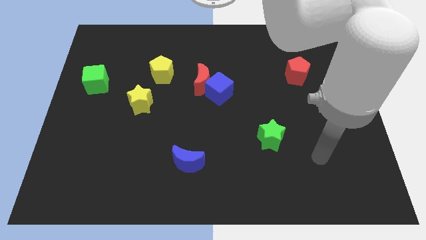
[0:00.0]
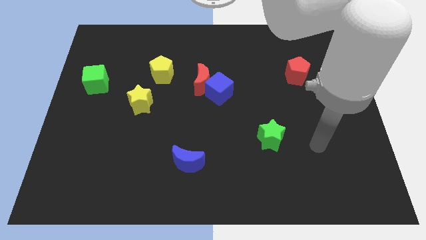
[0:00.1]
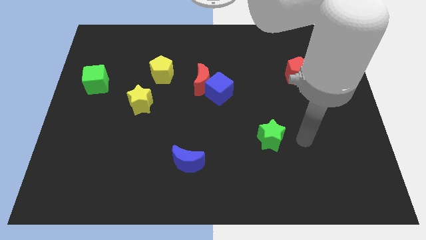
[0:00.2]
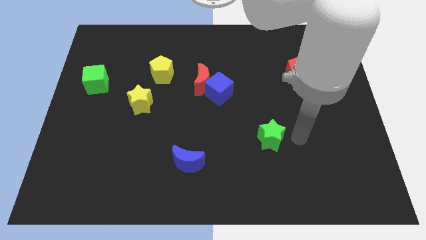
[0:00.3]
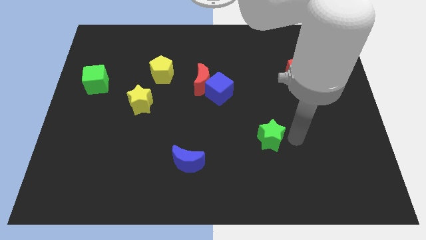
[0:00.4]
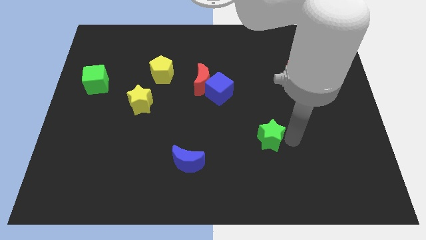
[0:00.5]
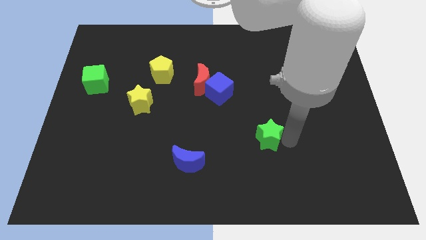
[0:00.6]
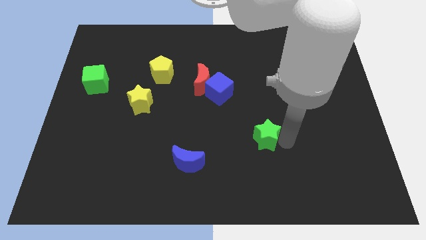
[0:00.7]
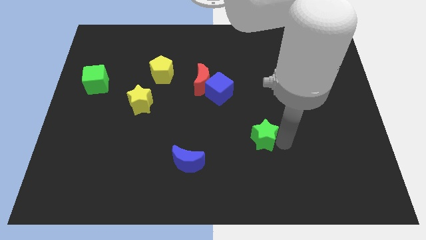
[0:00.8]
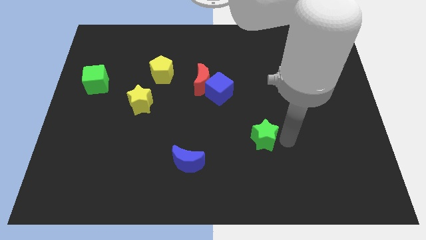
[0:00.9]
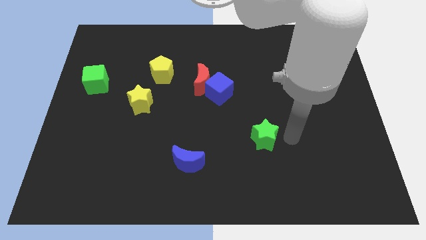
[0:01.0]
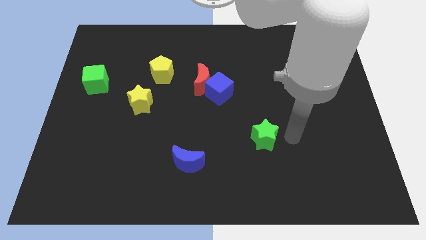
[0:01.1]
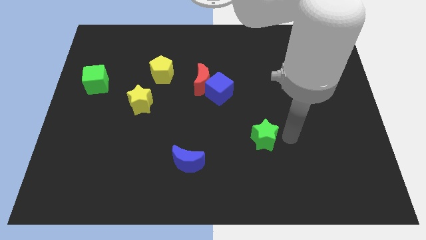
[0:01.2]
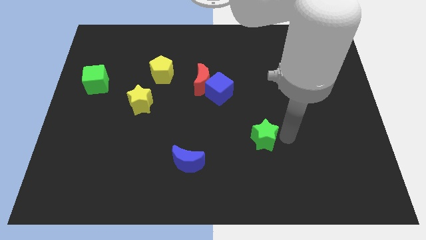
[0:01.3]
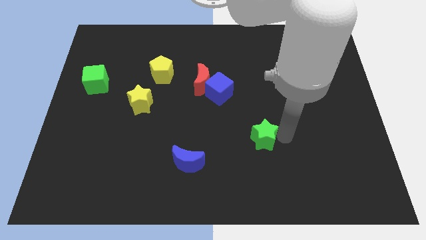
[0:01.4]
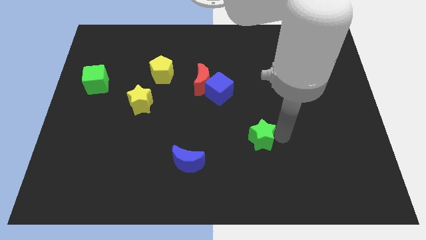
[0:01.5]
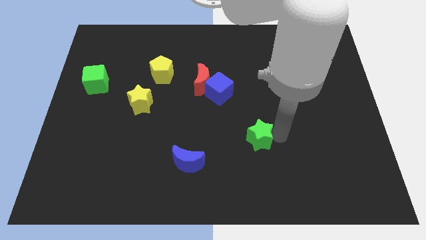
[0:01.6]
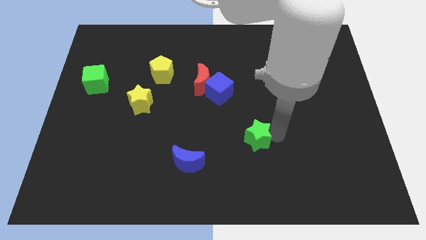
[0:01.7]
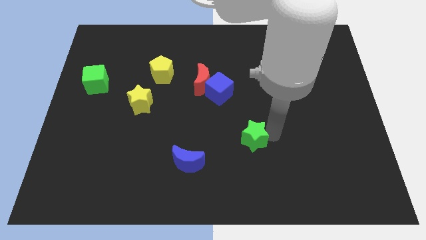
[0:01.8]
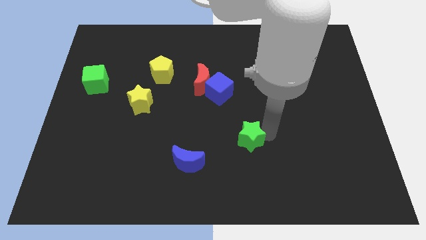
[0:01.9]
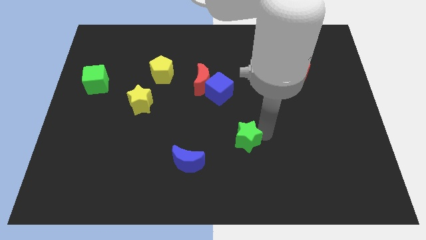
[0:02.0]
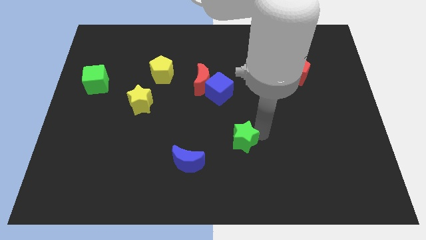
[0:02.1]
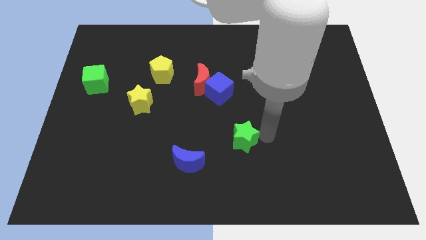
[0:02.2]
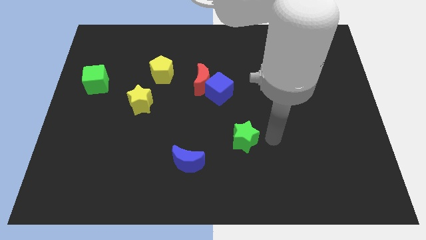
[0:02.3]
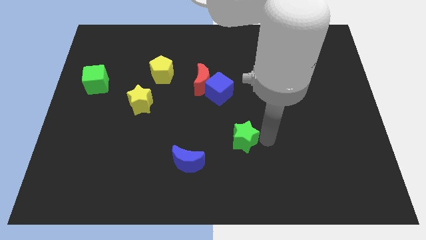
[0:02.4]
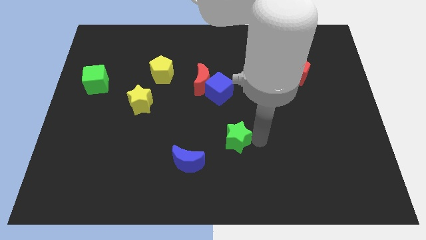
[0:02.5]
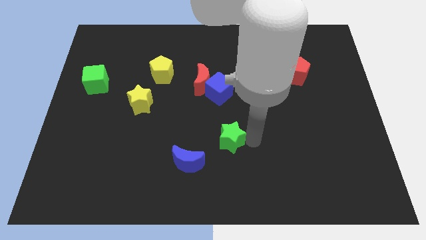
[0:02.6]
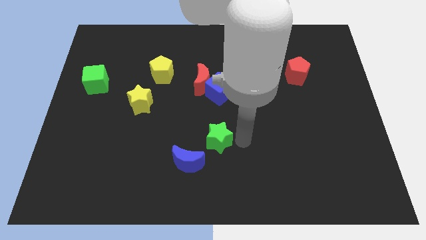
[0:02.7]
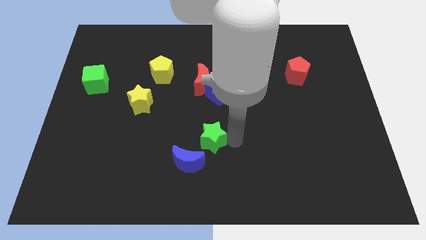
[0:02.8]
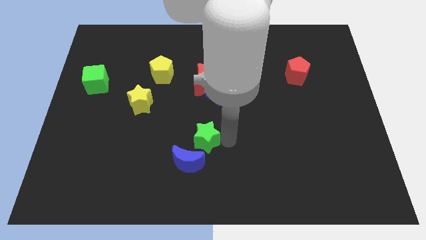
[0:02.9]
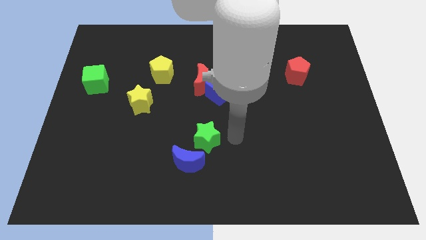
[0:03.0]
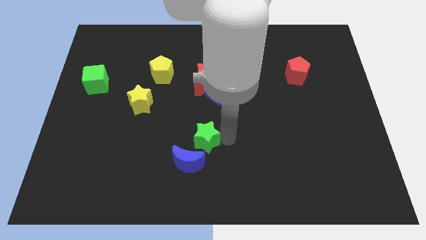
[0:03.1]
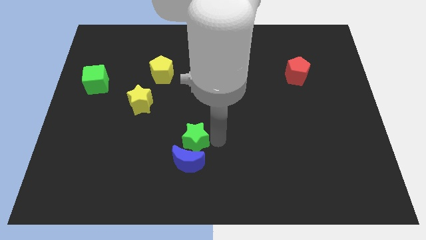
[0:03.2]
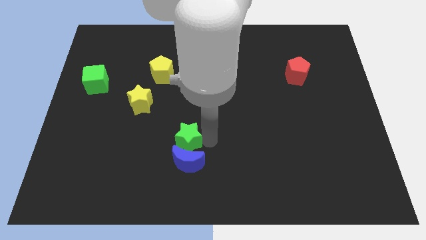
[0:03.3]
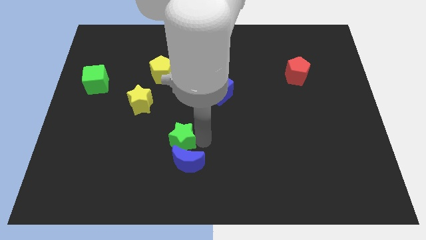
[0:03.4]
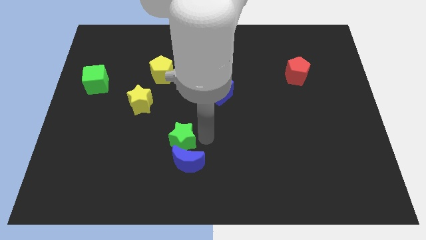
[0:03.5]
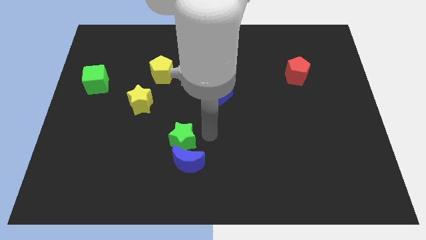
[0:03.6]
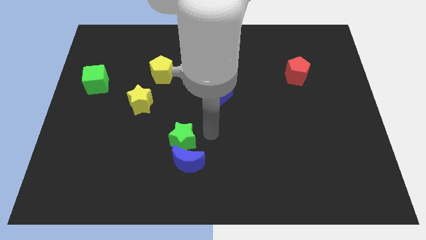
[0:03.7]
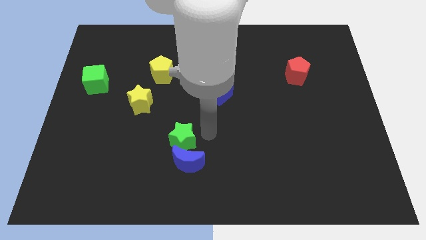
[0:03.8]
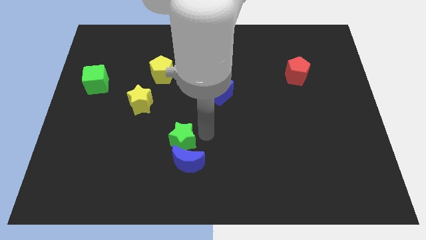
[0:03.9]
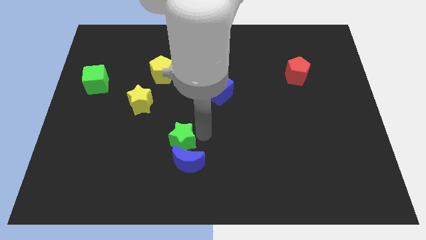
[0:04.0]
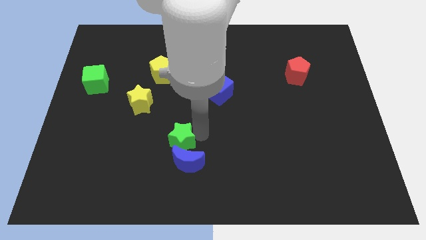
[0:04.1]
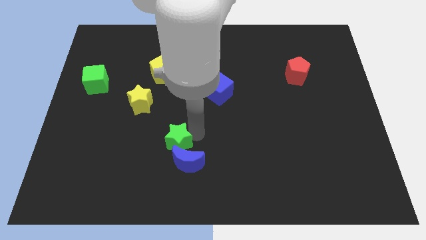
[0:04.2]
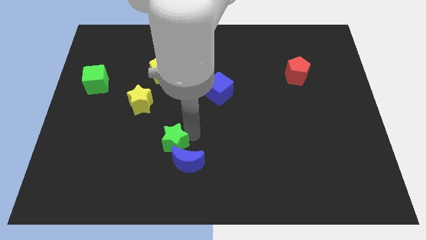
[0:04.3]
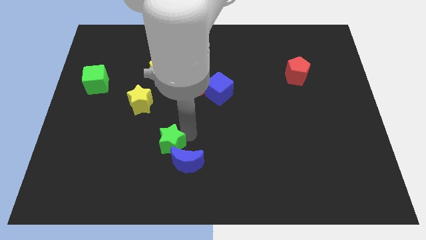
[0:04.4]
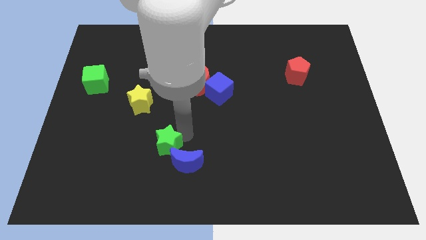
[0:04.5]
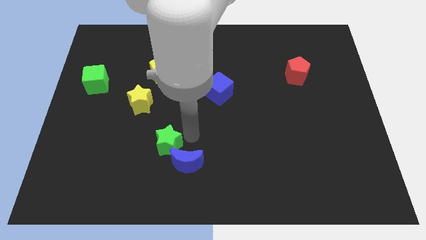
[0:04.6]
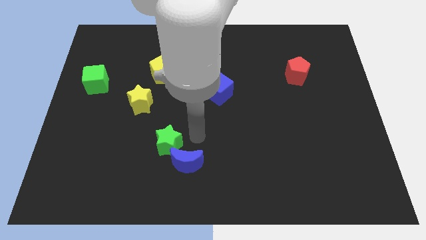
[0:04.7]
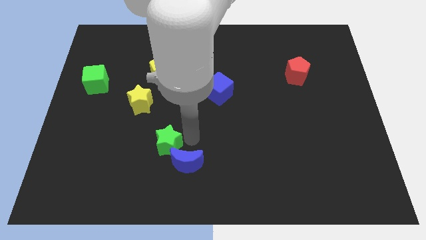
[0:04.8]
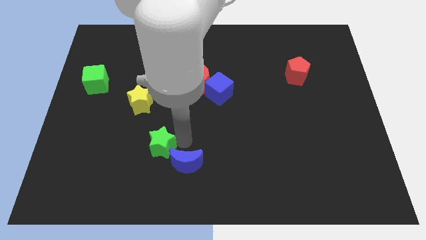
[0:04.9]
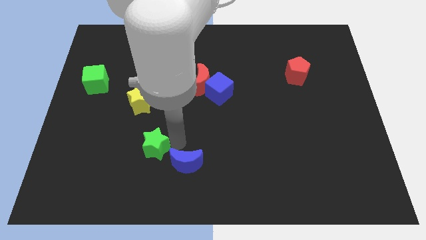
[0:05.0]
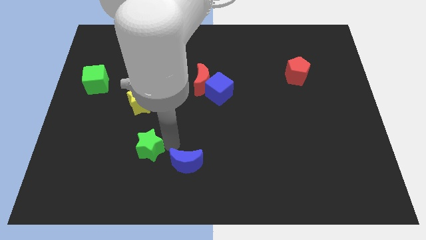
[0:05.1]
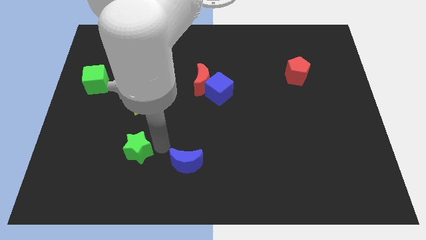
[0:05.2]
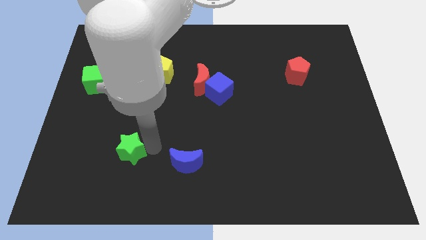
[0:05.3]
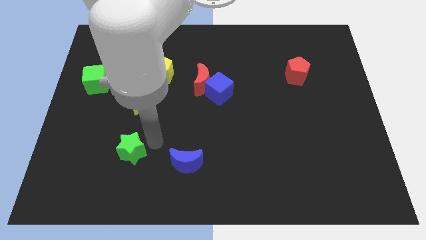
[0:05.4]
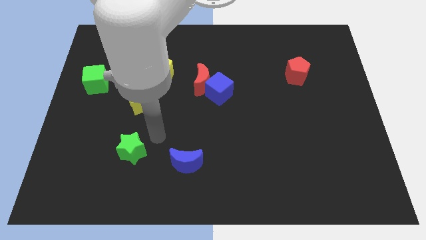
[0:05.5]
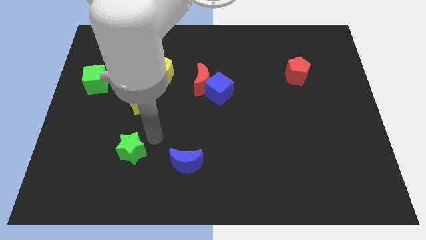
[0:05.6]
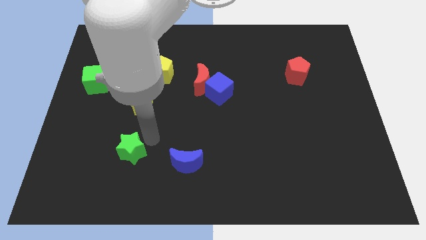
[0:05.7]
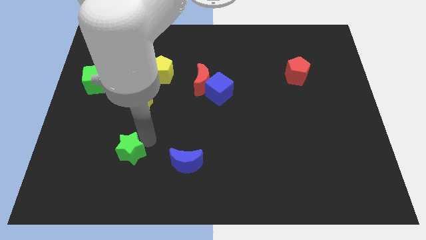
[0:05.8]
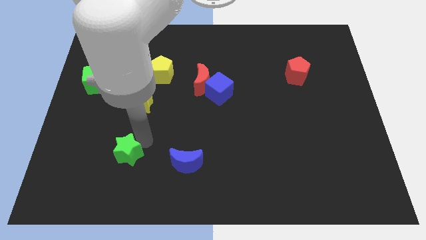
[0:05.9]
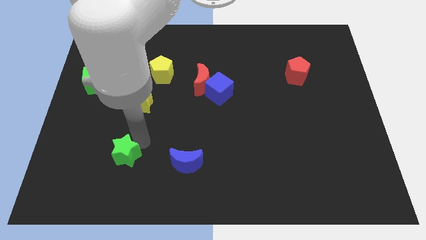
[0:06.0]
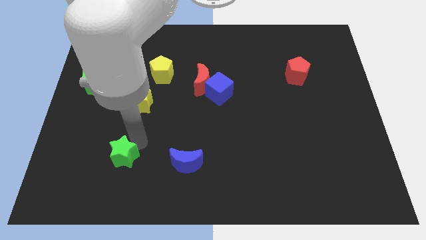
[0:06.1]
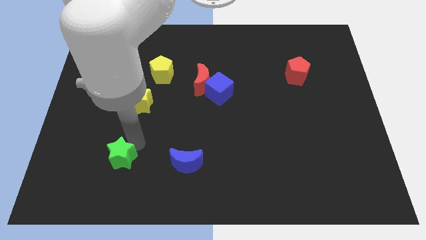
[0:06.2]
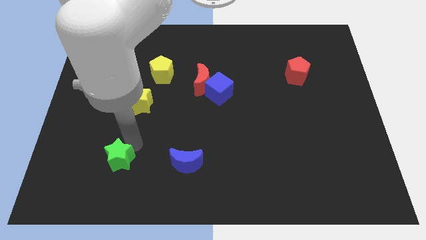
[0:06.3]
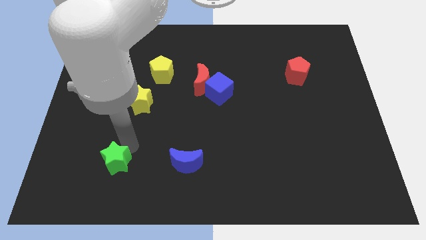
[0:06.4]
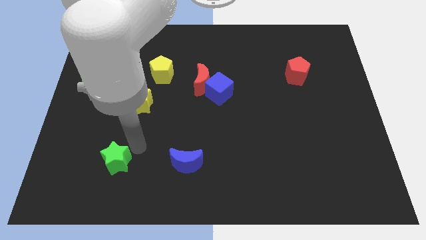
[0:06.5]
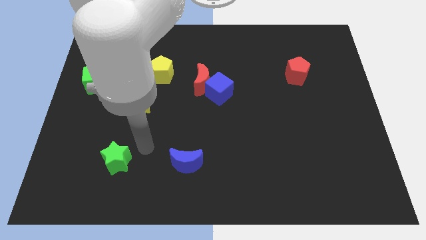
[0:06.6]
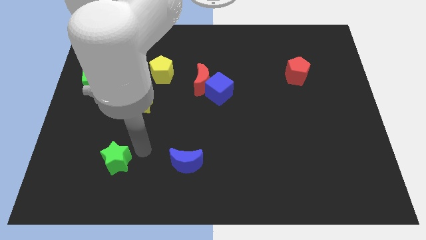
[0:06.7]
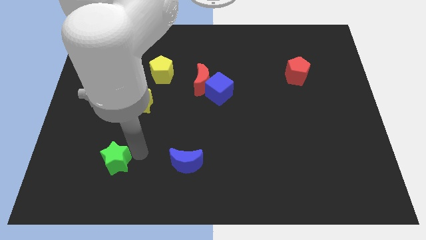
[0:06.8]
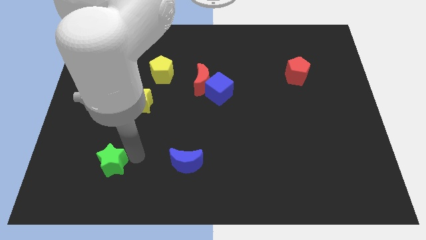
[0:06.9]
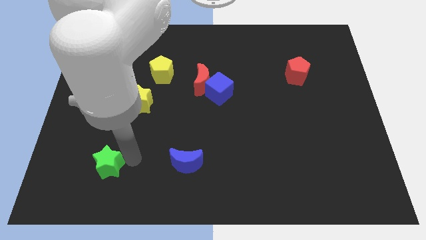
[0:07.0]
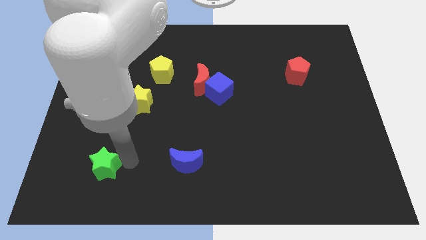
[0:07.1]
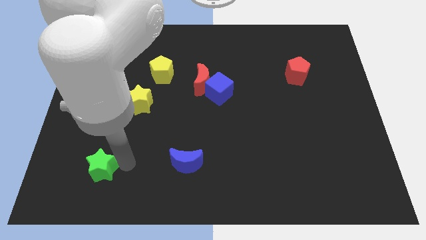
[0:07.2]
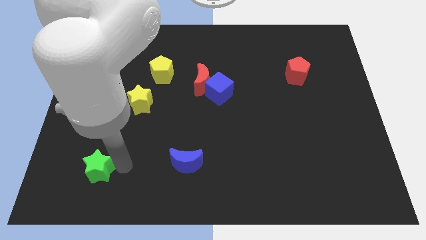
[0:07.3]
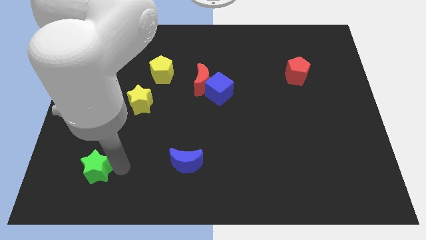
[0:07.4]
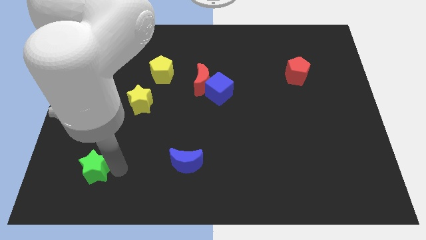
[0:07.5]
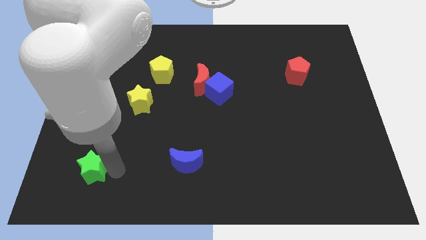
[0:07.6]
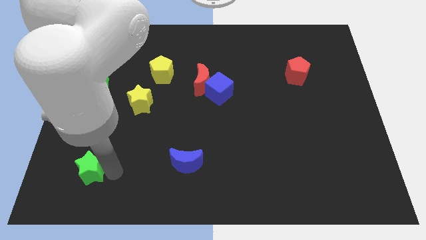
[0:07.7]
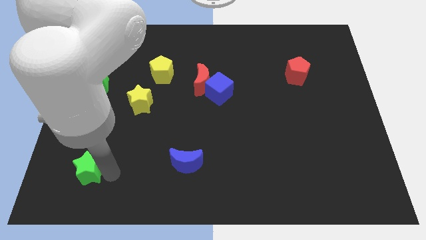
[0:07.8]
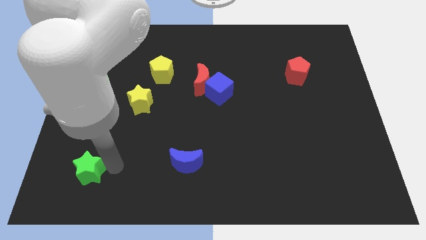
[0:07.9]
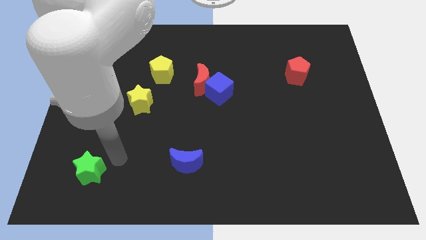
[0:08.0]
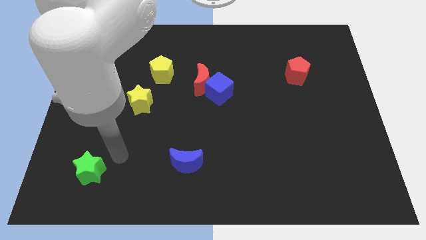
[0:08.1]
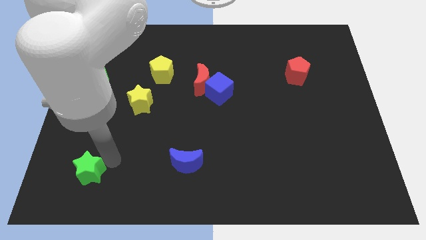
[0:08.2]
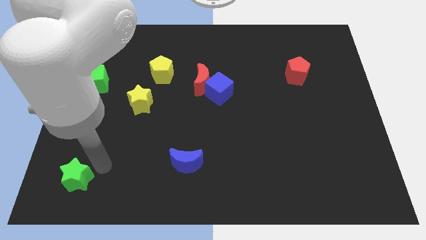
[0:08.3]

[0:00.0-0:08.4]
move the green star to the bottom left of the board
